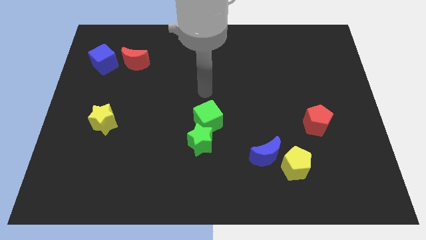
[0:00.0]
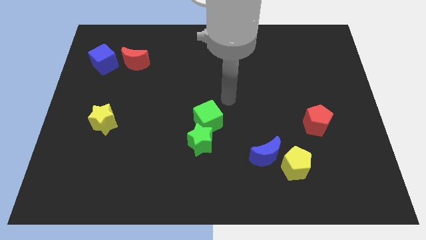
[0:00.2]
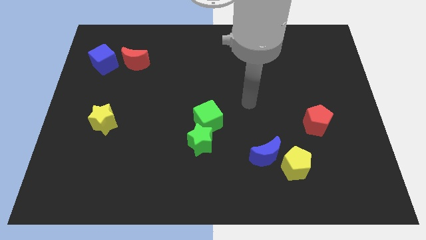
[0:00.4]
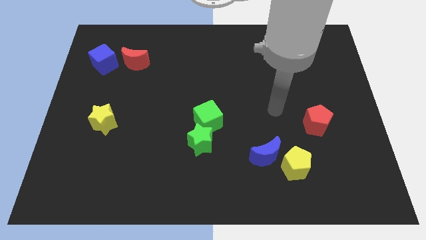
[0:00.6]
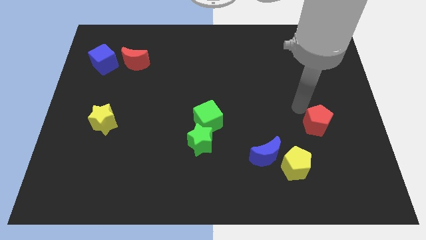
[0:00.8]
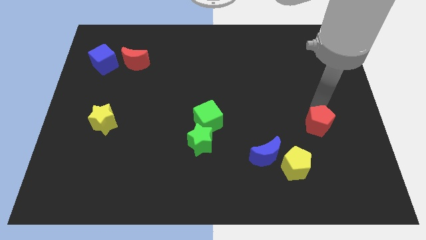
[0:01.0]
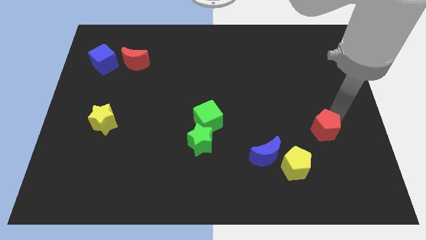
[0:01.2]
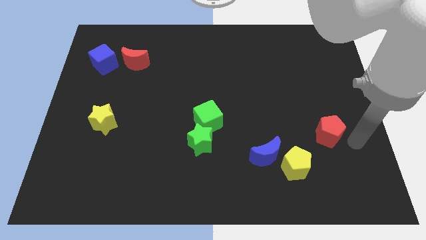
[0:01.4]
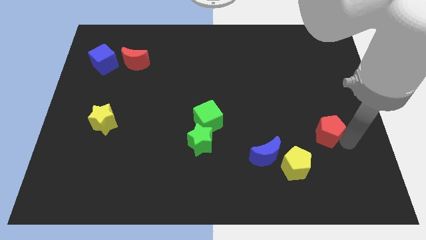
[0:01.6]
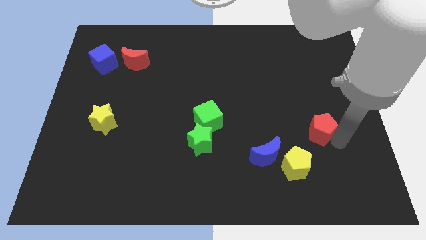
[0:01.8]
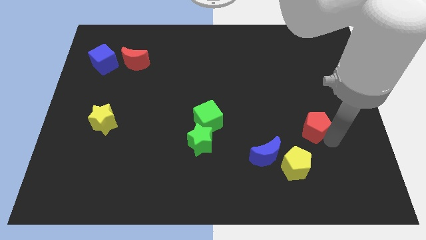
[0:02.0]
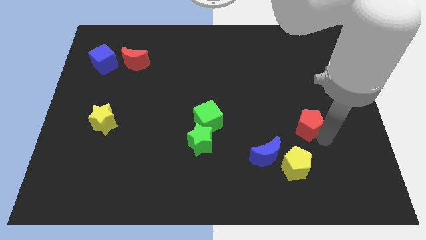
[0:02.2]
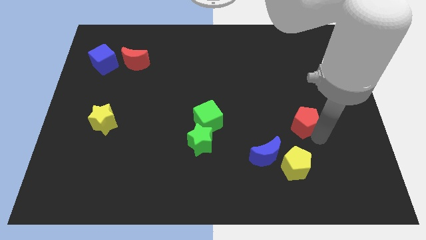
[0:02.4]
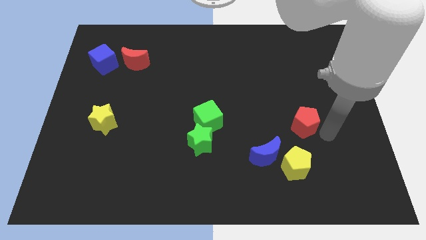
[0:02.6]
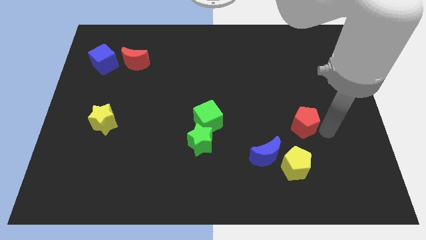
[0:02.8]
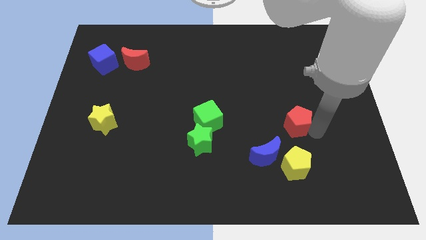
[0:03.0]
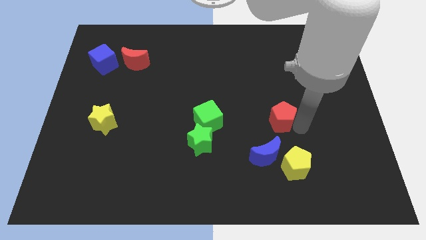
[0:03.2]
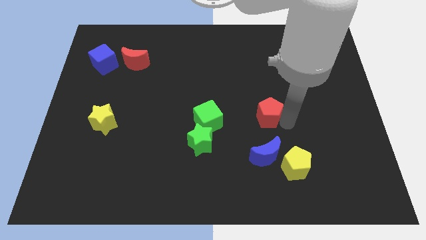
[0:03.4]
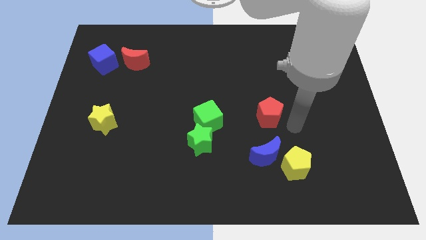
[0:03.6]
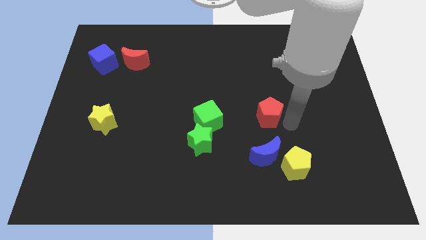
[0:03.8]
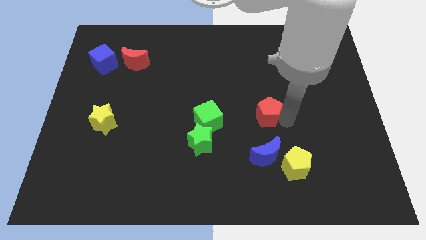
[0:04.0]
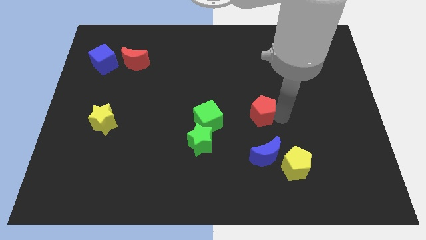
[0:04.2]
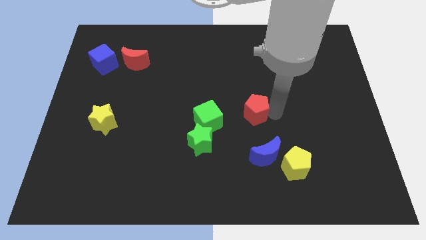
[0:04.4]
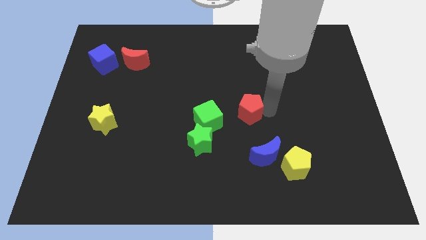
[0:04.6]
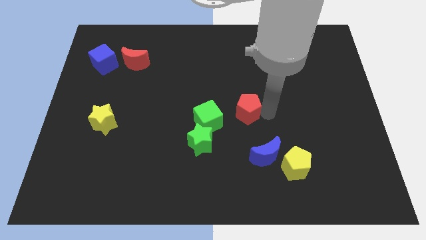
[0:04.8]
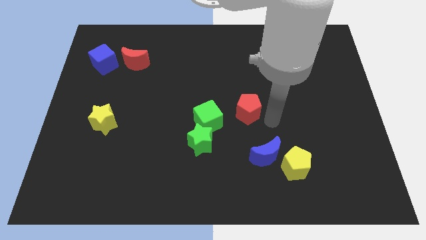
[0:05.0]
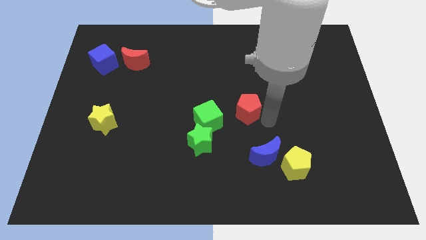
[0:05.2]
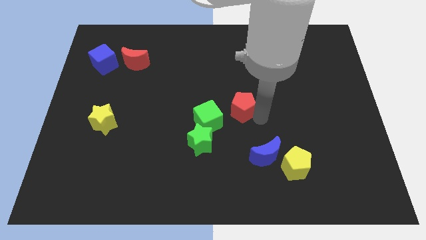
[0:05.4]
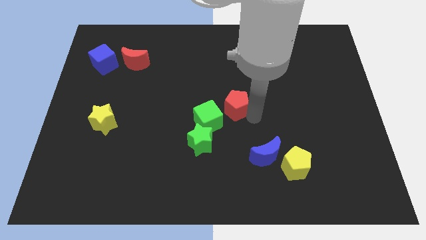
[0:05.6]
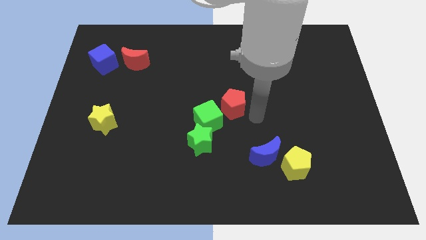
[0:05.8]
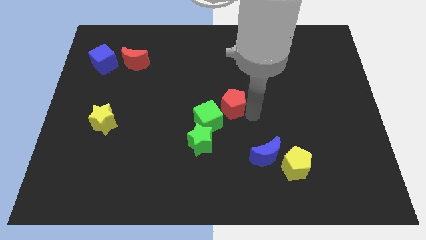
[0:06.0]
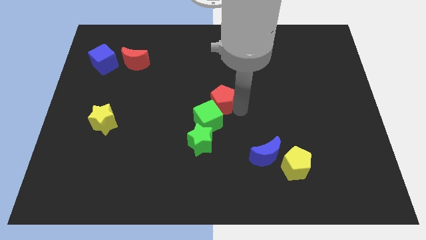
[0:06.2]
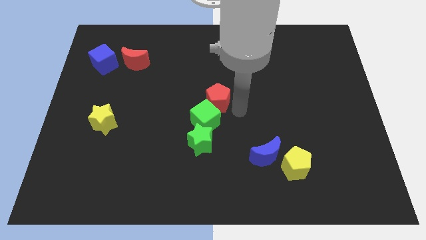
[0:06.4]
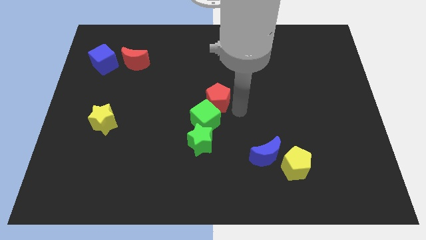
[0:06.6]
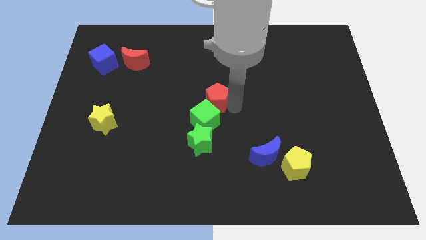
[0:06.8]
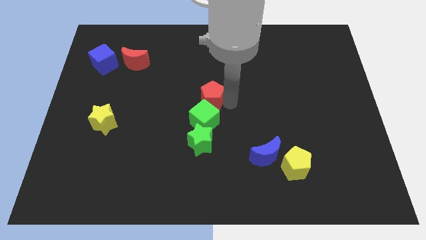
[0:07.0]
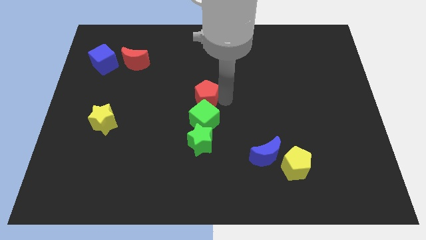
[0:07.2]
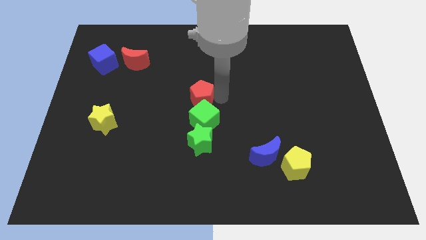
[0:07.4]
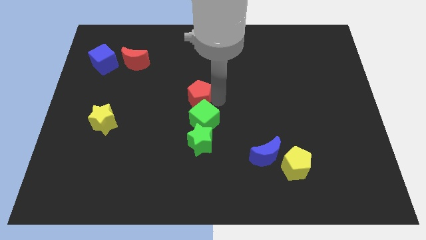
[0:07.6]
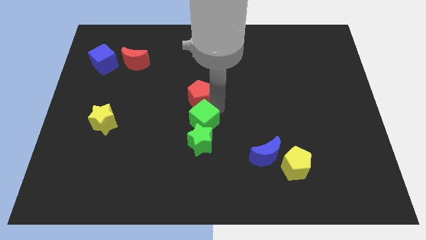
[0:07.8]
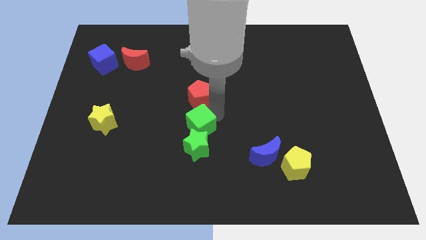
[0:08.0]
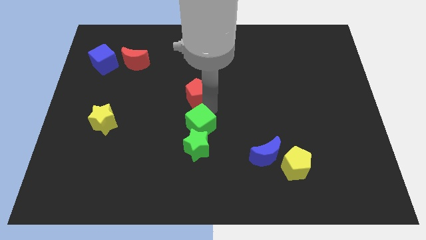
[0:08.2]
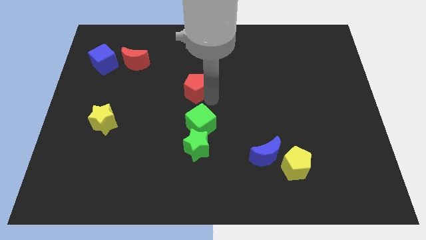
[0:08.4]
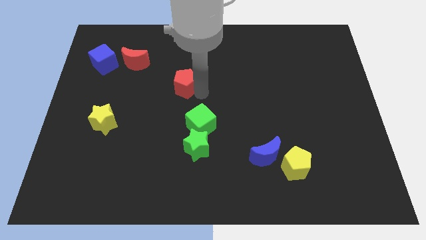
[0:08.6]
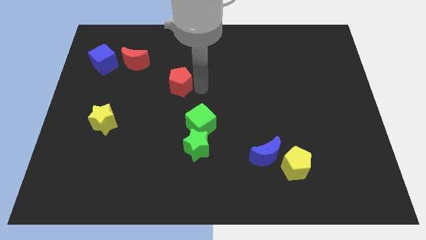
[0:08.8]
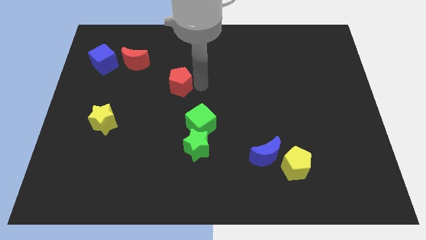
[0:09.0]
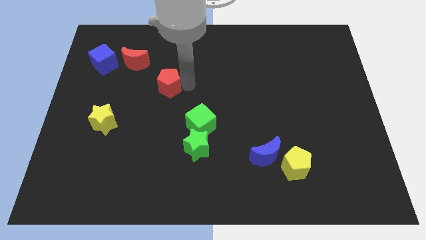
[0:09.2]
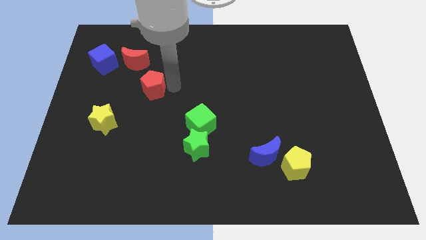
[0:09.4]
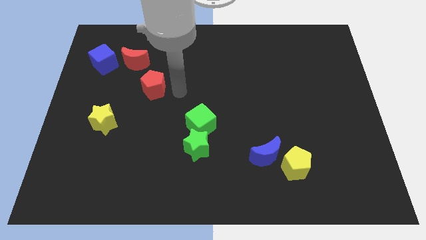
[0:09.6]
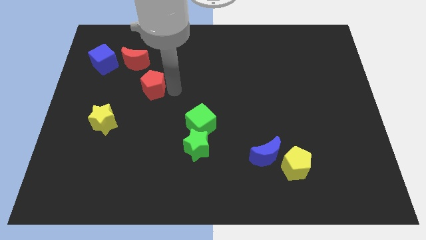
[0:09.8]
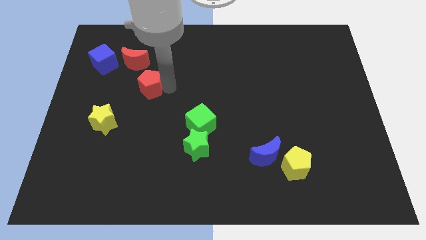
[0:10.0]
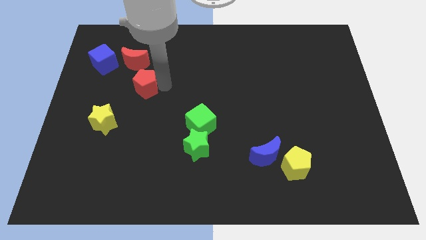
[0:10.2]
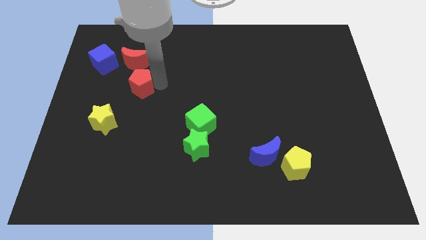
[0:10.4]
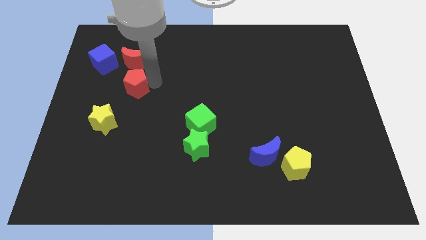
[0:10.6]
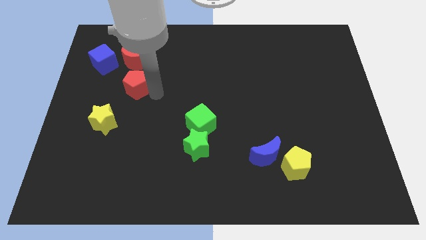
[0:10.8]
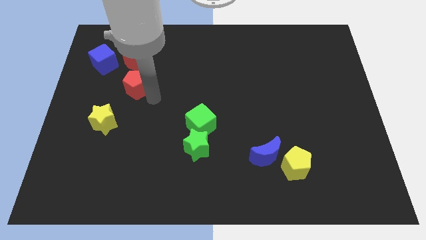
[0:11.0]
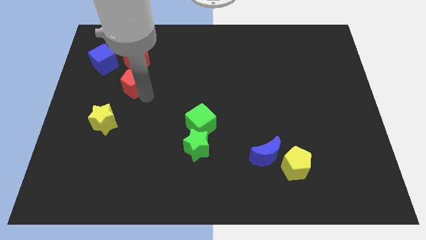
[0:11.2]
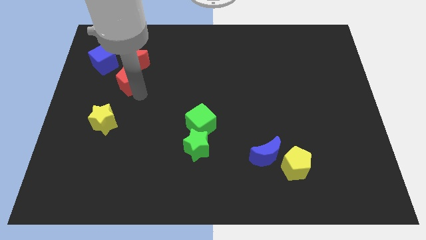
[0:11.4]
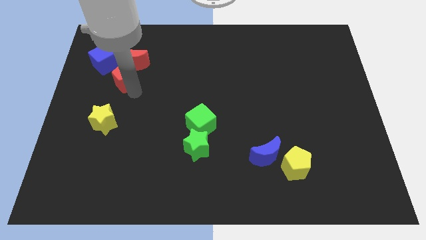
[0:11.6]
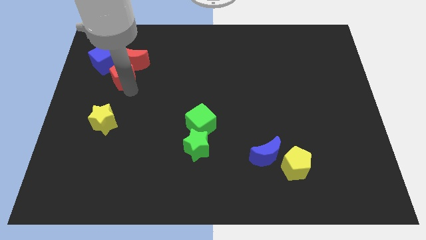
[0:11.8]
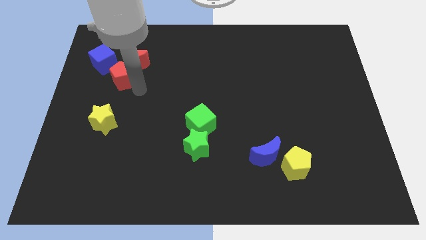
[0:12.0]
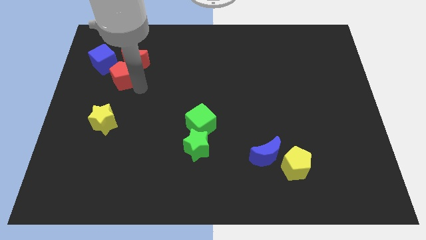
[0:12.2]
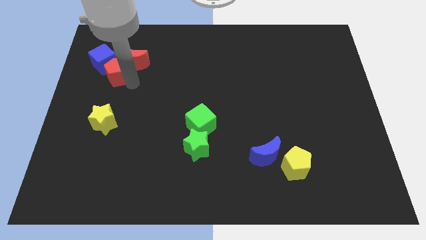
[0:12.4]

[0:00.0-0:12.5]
push the red pentagon close to the blue cube

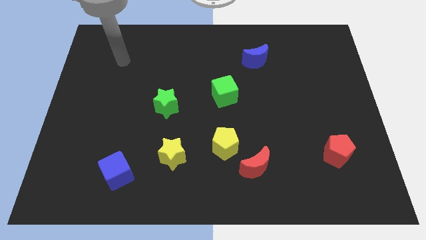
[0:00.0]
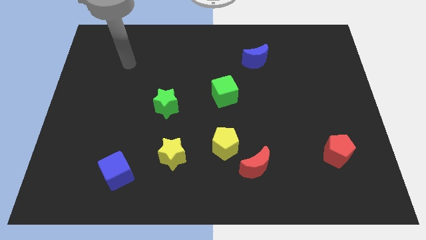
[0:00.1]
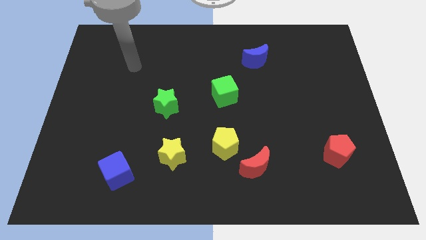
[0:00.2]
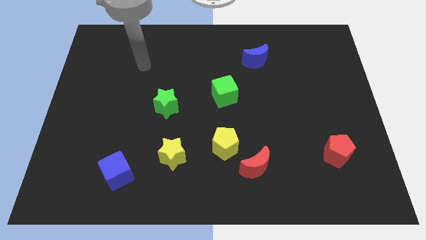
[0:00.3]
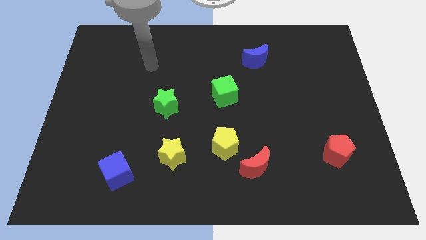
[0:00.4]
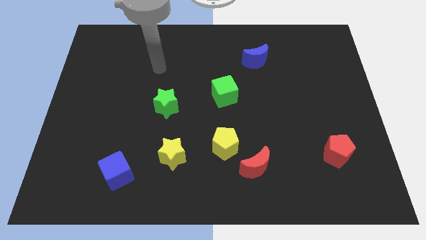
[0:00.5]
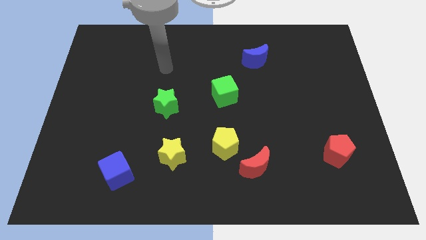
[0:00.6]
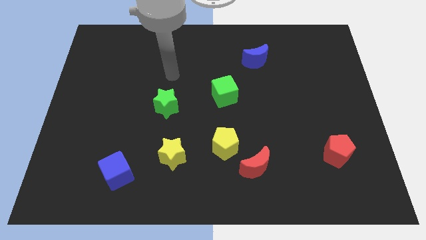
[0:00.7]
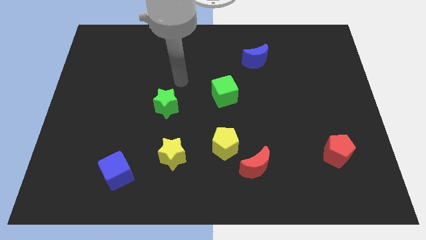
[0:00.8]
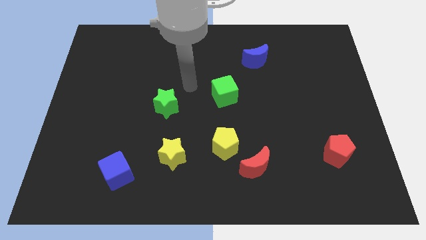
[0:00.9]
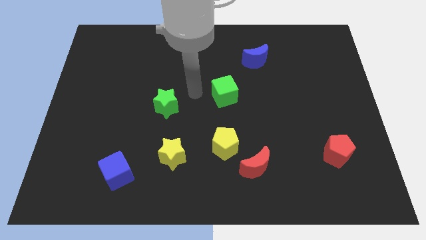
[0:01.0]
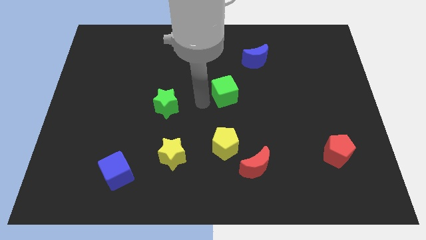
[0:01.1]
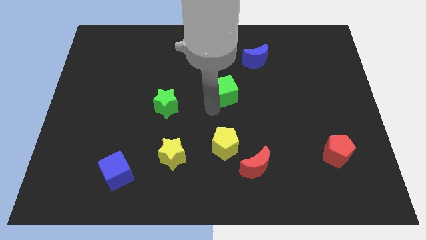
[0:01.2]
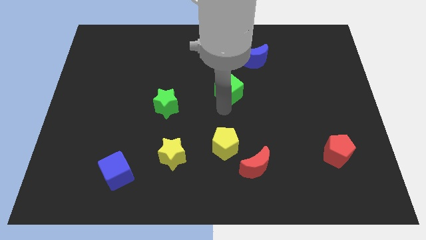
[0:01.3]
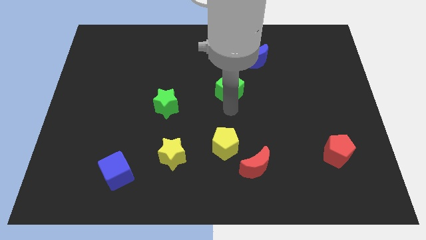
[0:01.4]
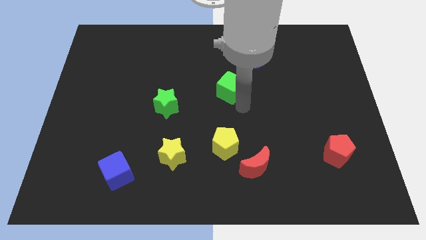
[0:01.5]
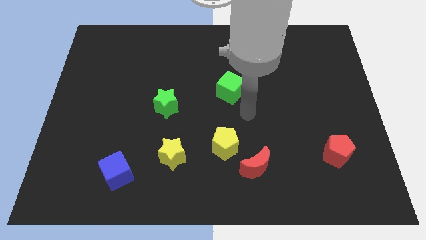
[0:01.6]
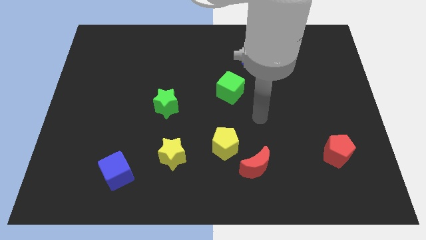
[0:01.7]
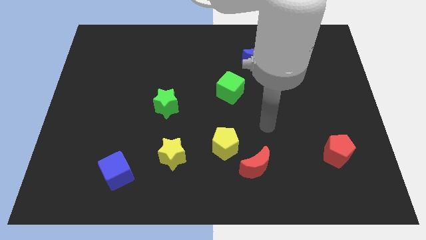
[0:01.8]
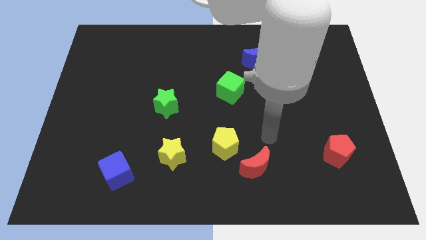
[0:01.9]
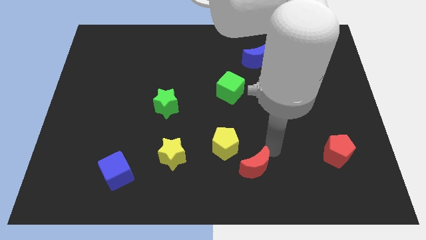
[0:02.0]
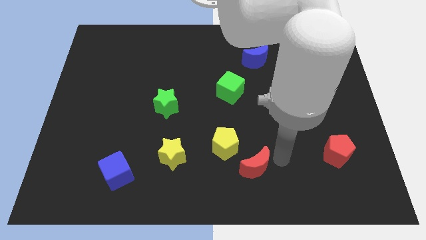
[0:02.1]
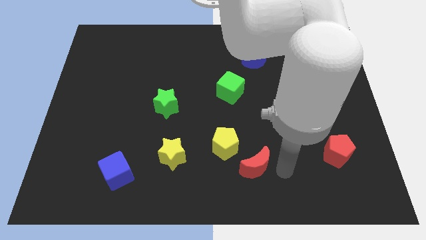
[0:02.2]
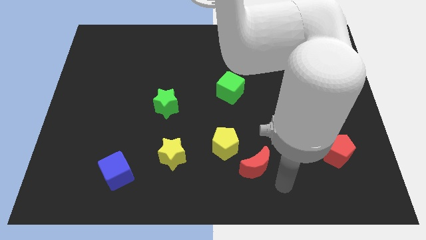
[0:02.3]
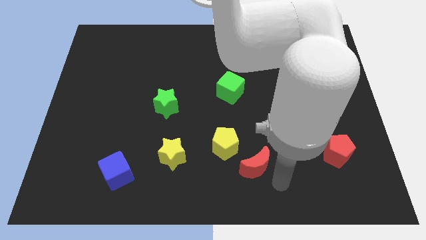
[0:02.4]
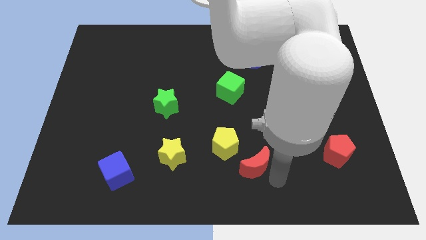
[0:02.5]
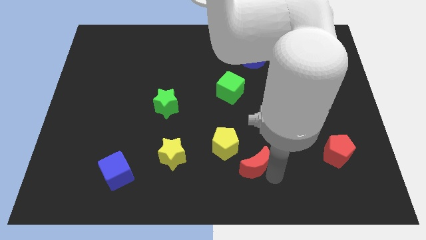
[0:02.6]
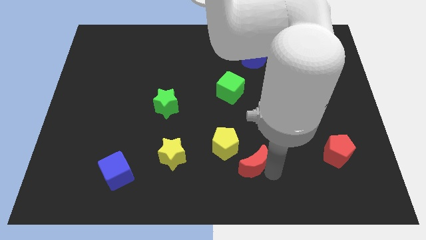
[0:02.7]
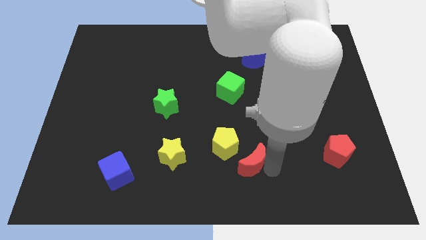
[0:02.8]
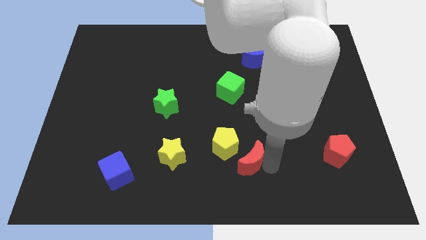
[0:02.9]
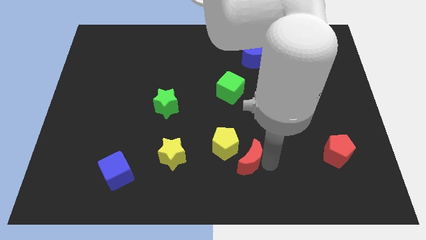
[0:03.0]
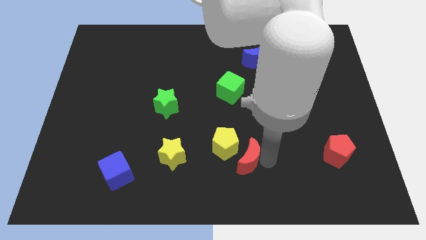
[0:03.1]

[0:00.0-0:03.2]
move the red moon to the yellow pentagon
